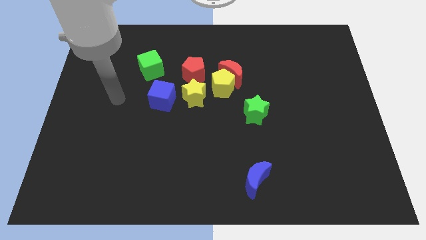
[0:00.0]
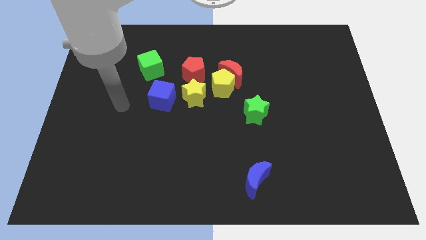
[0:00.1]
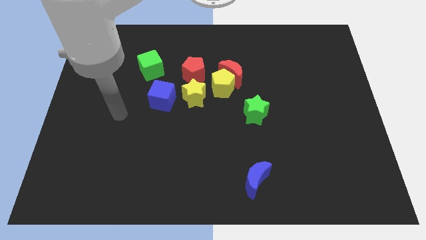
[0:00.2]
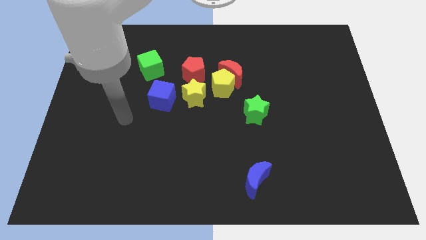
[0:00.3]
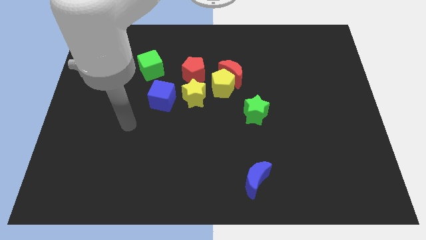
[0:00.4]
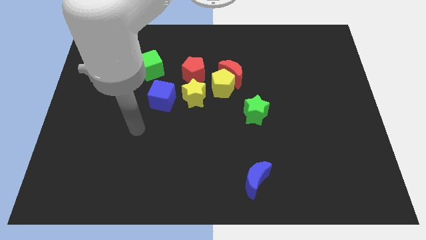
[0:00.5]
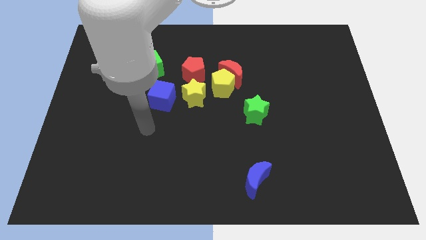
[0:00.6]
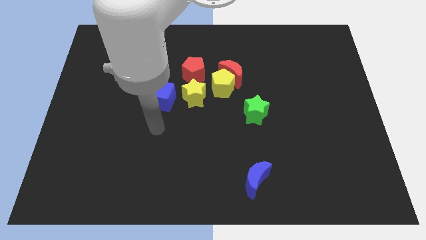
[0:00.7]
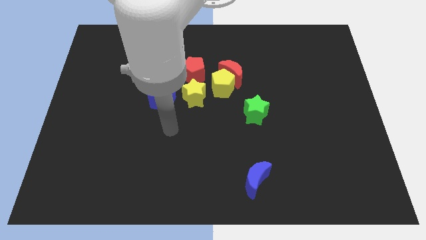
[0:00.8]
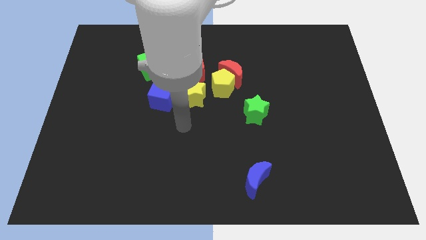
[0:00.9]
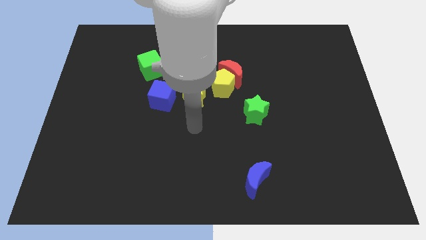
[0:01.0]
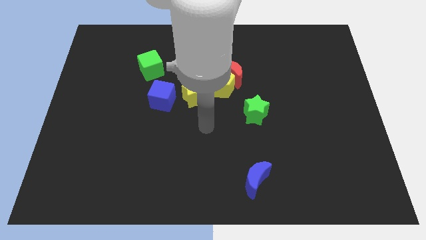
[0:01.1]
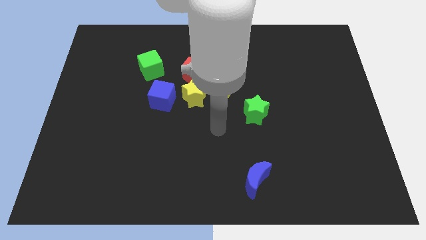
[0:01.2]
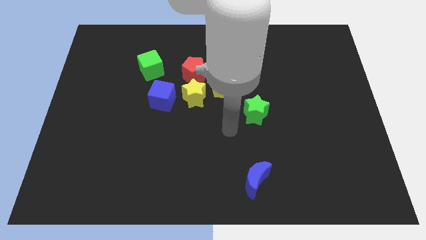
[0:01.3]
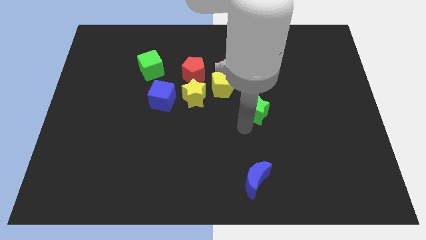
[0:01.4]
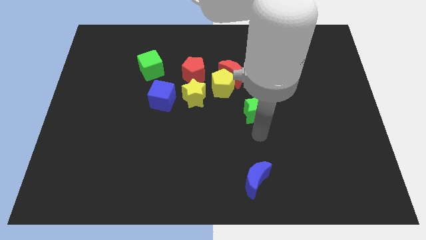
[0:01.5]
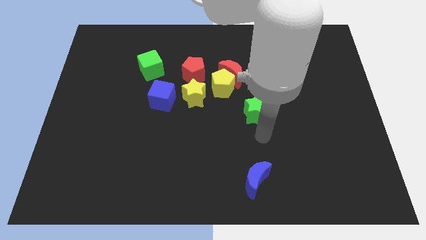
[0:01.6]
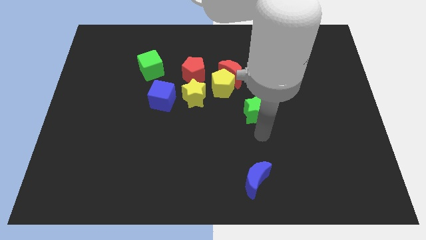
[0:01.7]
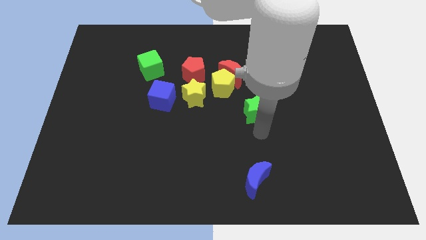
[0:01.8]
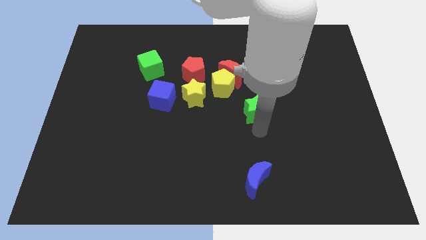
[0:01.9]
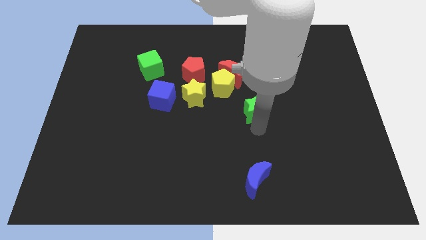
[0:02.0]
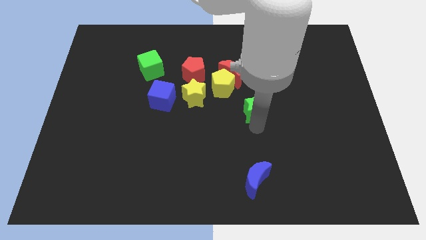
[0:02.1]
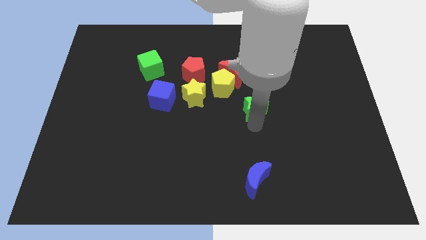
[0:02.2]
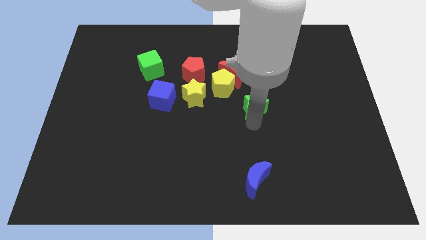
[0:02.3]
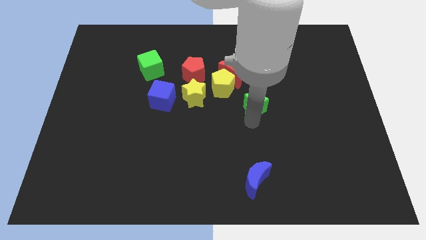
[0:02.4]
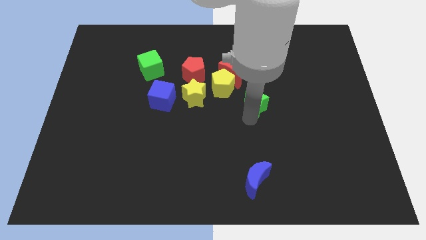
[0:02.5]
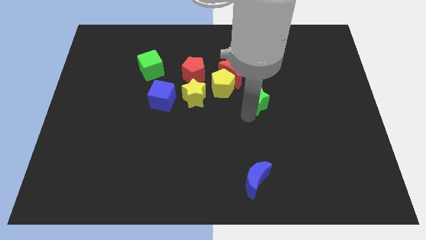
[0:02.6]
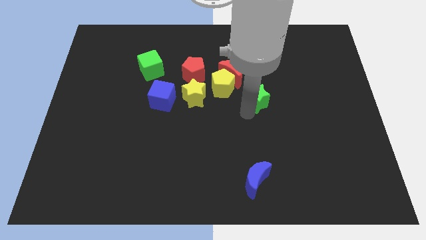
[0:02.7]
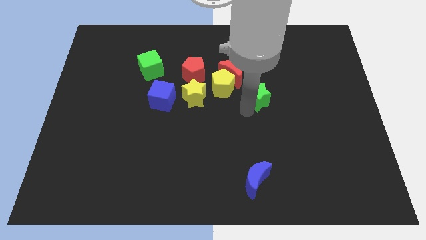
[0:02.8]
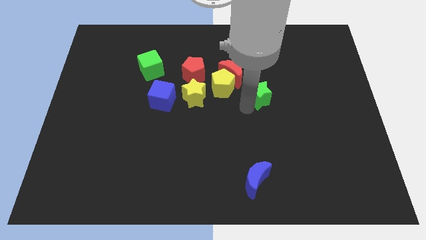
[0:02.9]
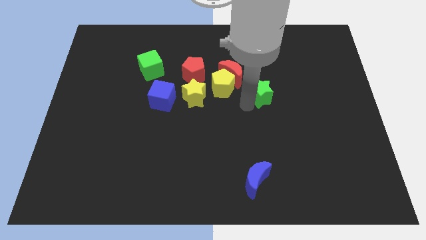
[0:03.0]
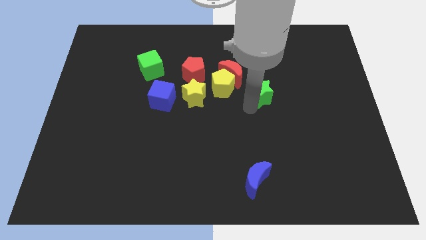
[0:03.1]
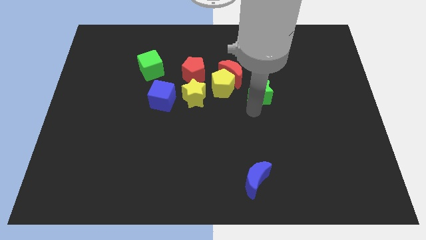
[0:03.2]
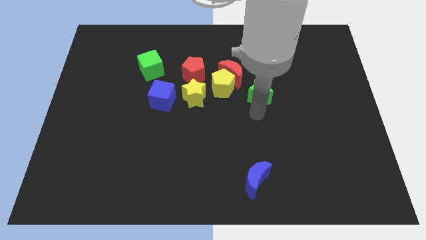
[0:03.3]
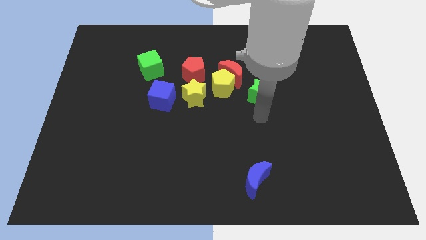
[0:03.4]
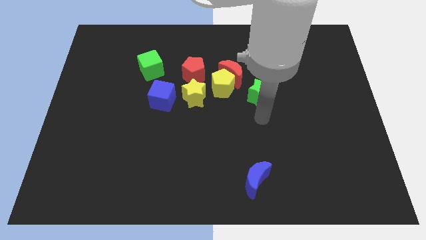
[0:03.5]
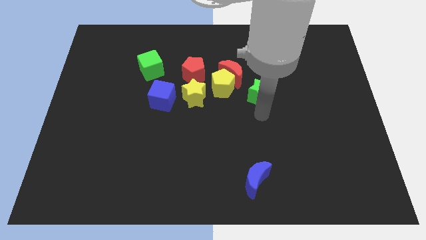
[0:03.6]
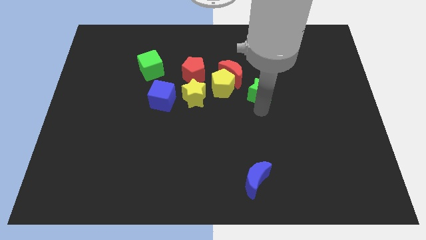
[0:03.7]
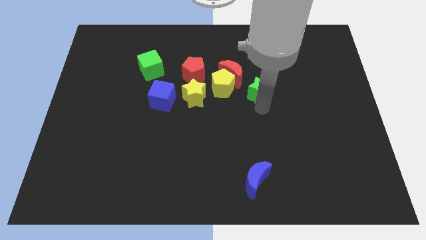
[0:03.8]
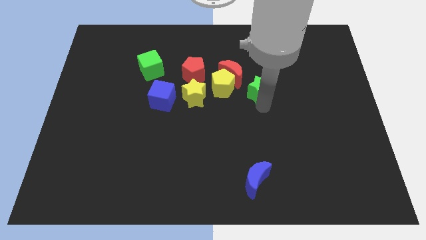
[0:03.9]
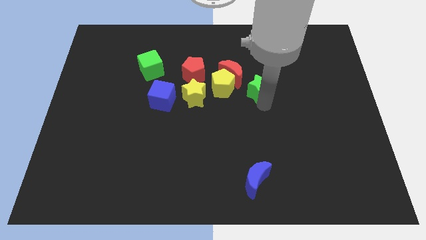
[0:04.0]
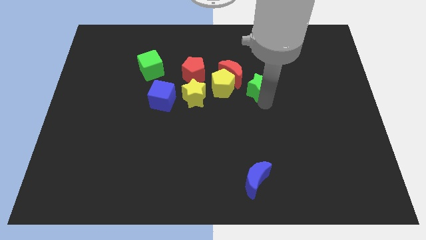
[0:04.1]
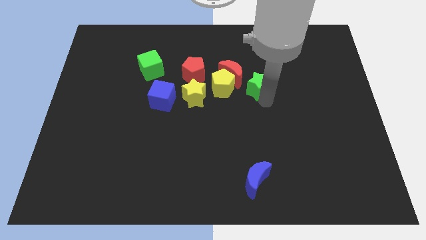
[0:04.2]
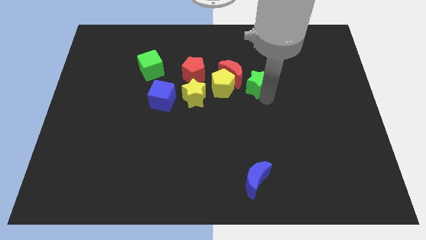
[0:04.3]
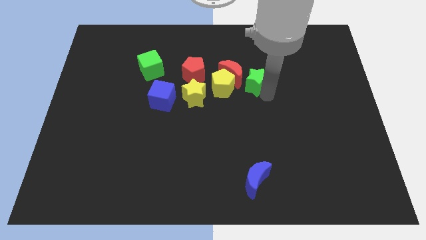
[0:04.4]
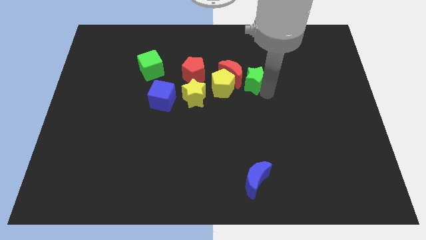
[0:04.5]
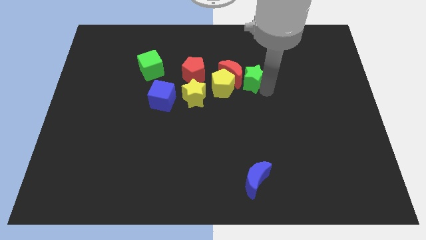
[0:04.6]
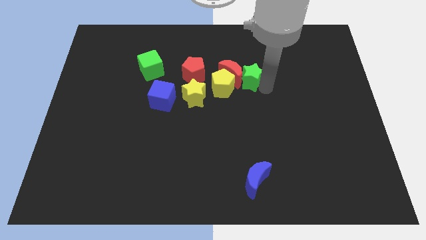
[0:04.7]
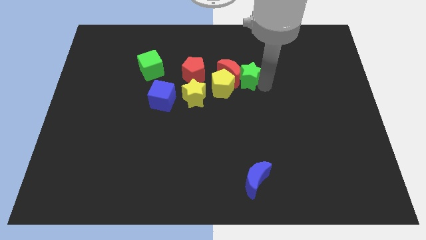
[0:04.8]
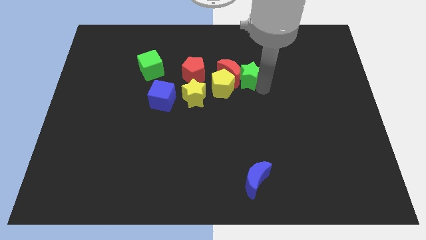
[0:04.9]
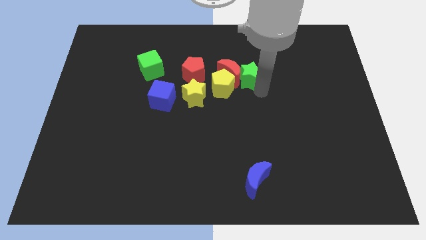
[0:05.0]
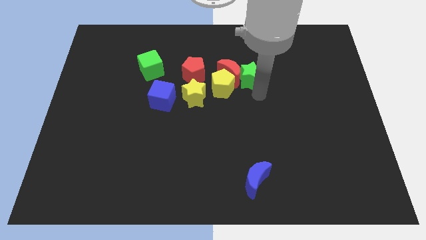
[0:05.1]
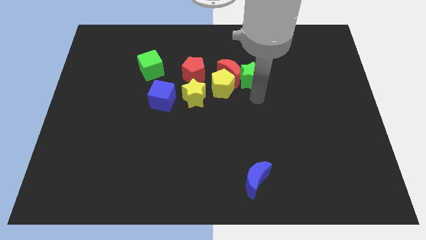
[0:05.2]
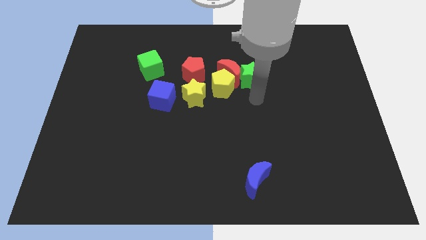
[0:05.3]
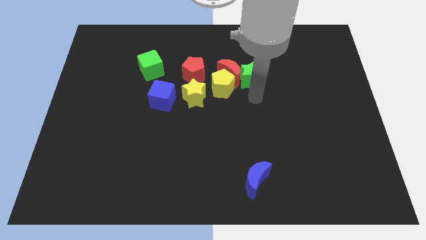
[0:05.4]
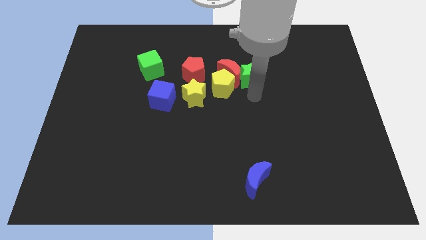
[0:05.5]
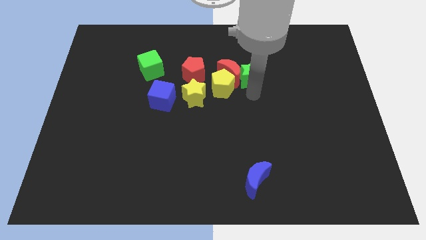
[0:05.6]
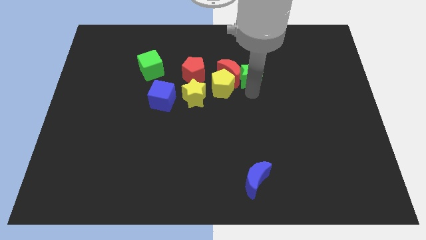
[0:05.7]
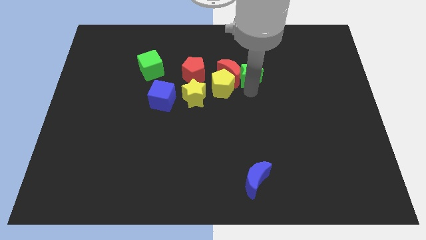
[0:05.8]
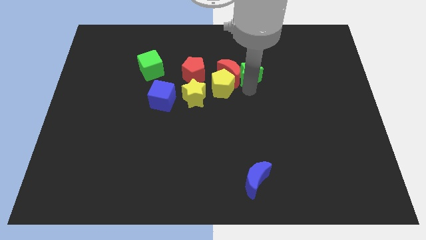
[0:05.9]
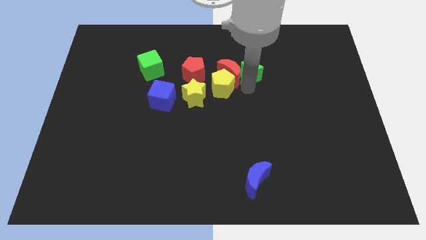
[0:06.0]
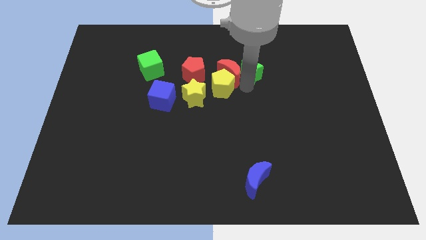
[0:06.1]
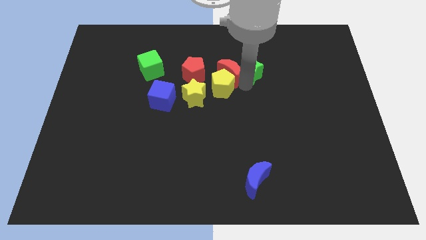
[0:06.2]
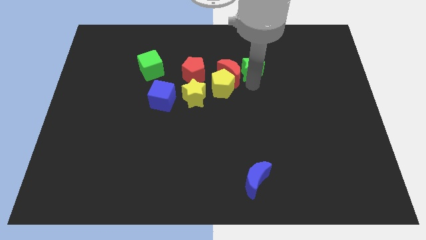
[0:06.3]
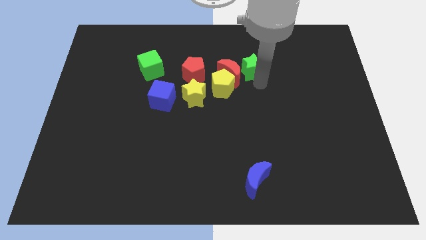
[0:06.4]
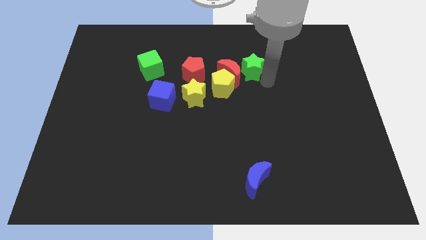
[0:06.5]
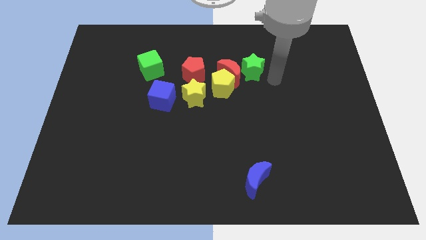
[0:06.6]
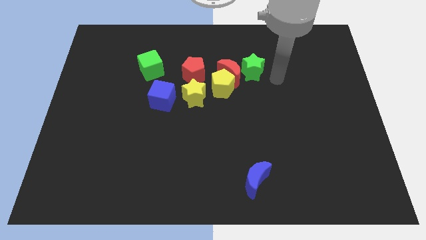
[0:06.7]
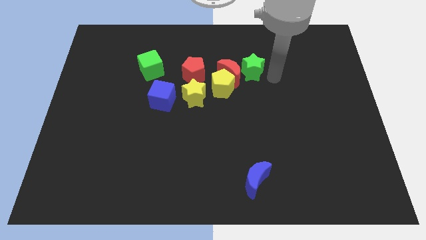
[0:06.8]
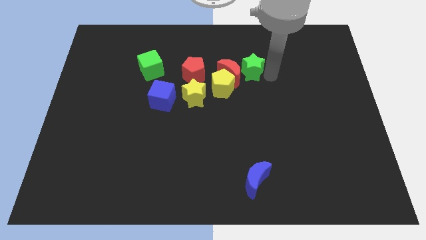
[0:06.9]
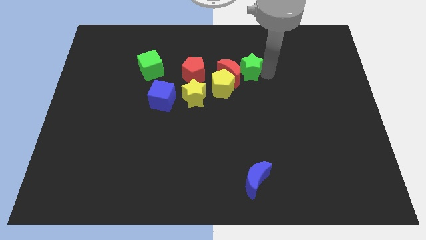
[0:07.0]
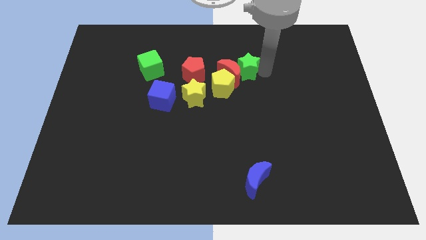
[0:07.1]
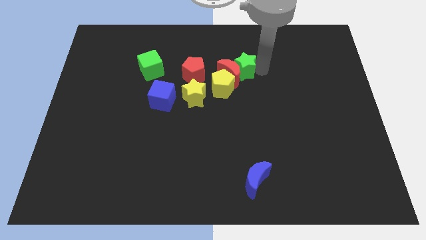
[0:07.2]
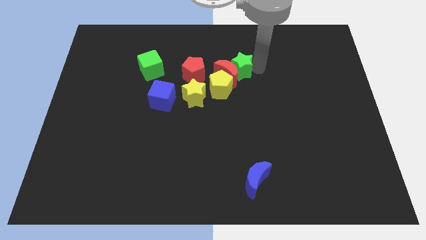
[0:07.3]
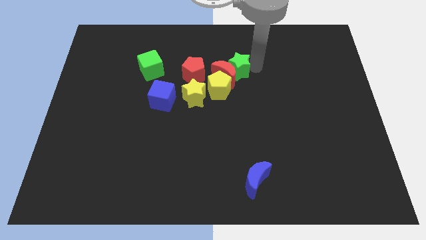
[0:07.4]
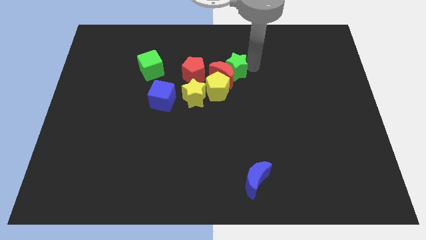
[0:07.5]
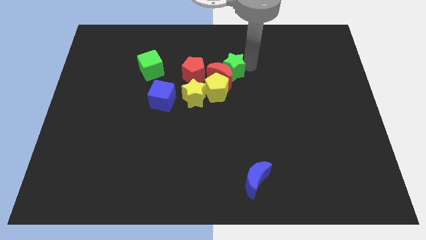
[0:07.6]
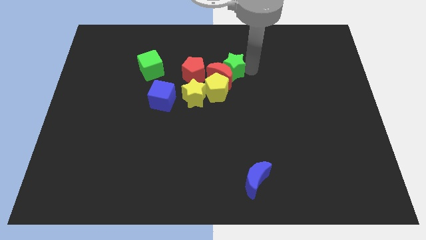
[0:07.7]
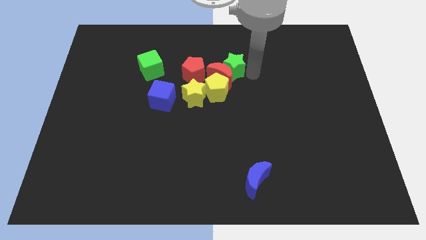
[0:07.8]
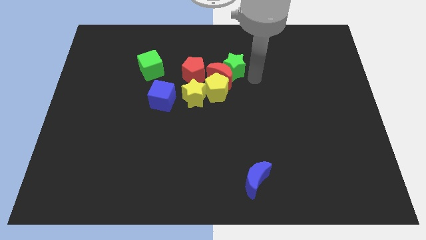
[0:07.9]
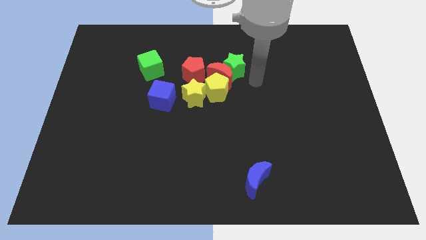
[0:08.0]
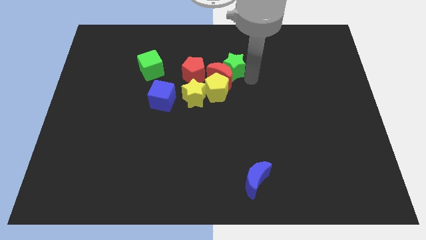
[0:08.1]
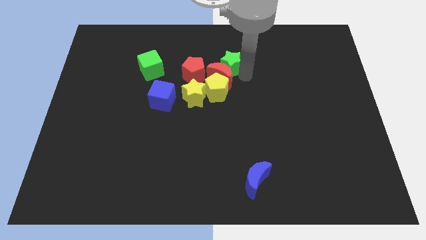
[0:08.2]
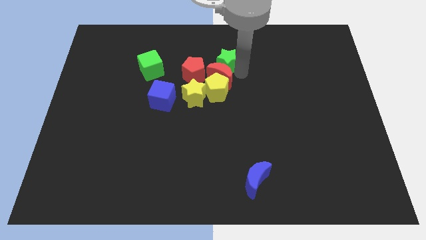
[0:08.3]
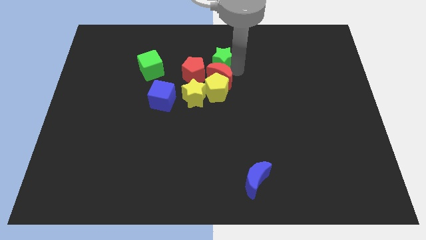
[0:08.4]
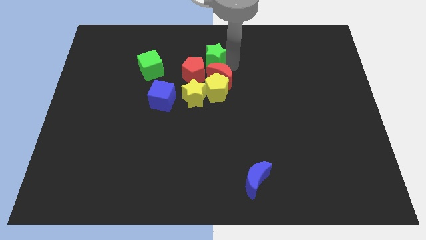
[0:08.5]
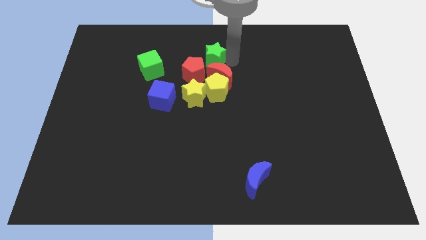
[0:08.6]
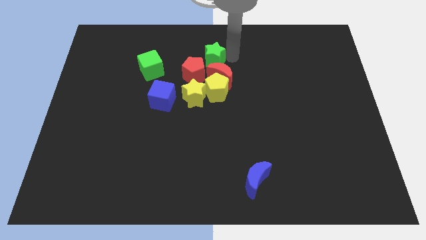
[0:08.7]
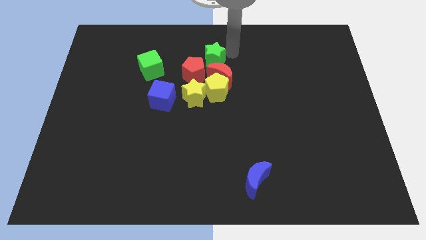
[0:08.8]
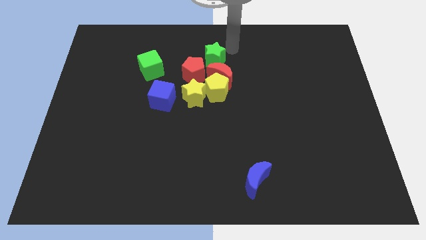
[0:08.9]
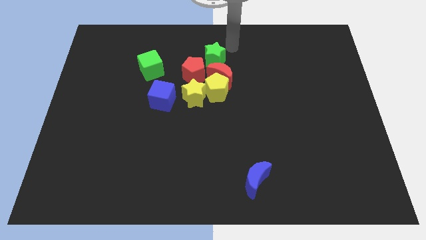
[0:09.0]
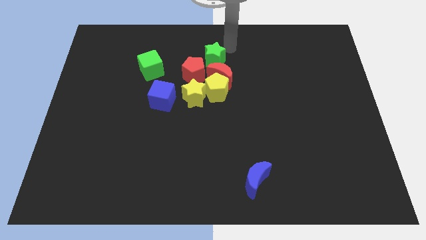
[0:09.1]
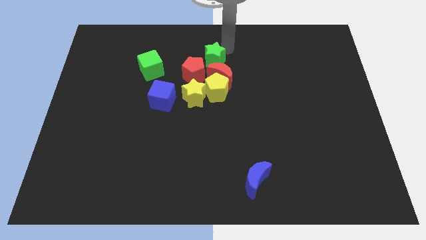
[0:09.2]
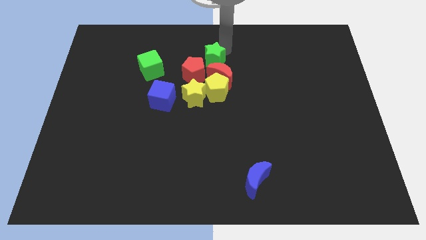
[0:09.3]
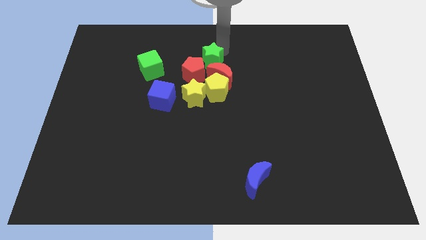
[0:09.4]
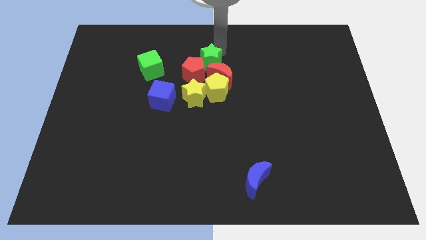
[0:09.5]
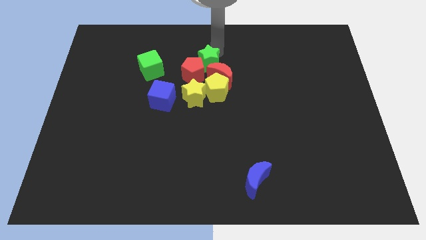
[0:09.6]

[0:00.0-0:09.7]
put the green star to the red pentagon
